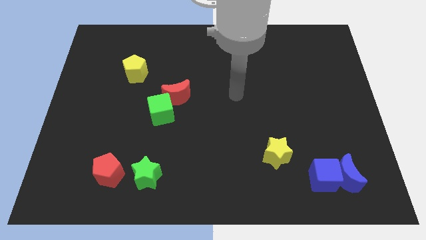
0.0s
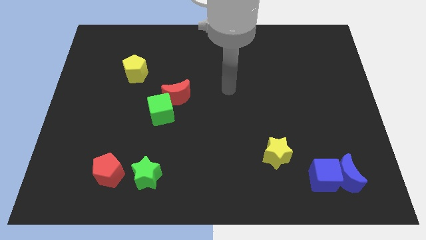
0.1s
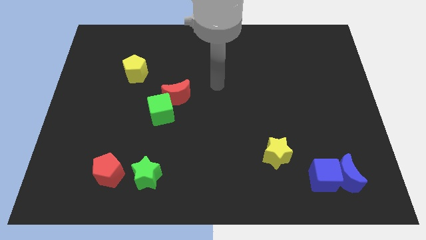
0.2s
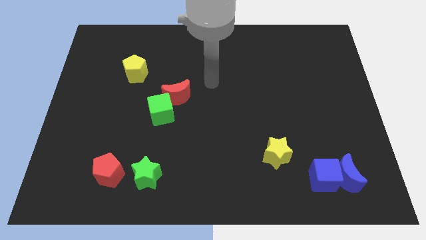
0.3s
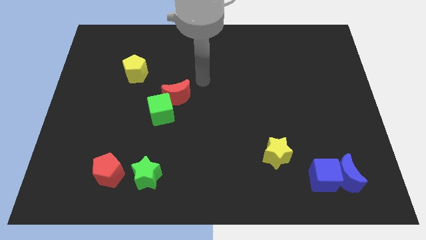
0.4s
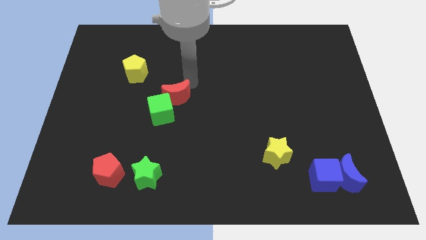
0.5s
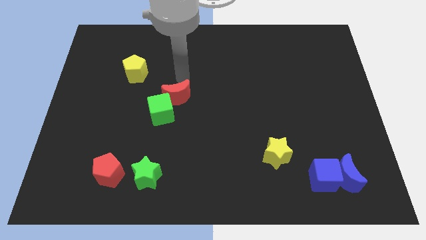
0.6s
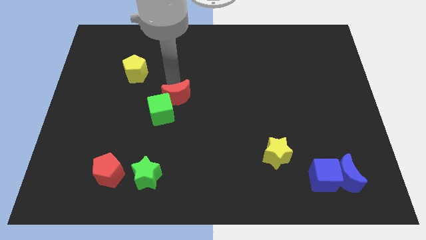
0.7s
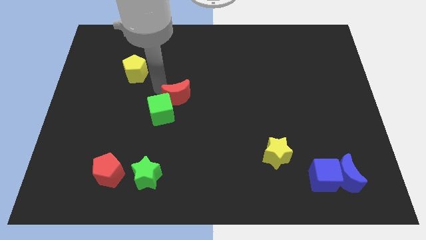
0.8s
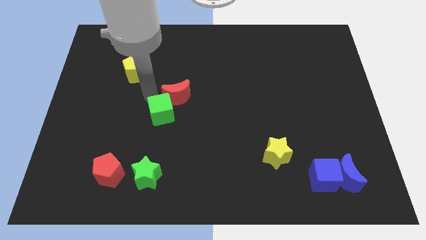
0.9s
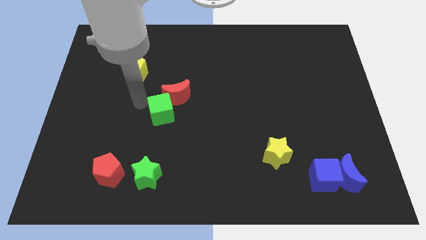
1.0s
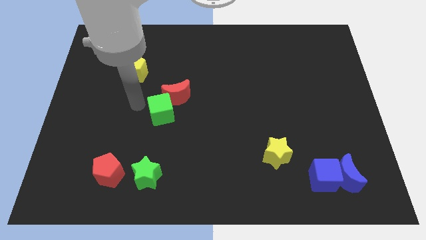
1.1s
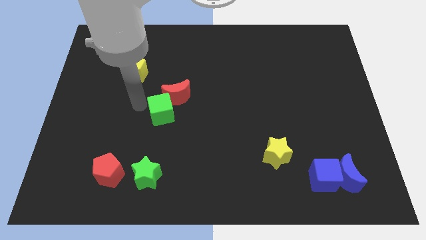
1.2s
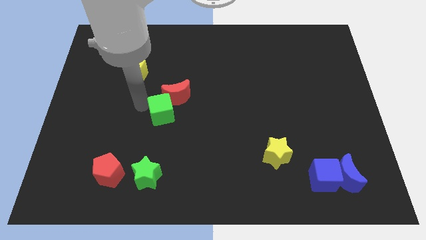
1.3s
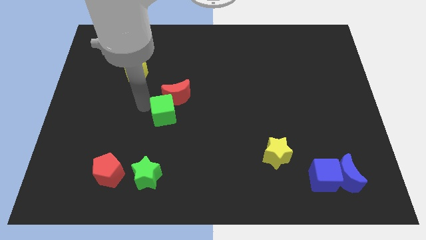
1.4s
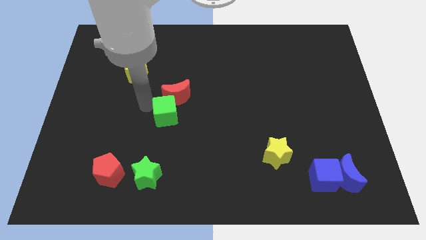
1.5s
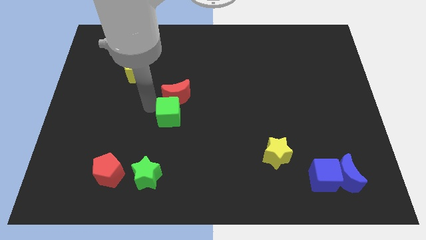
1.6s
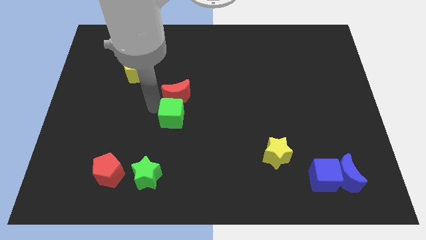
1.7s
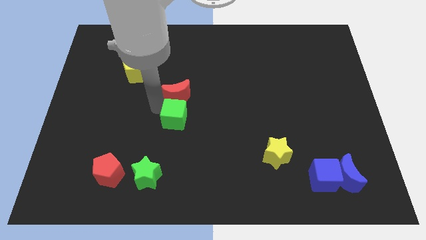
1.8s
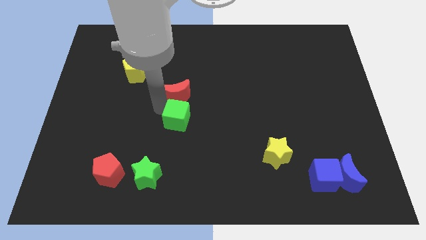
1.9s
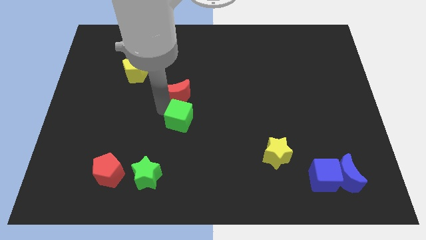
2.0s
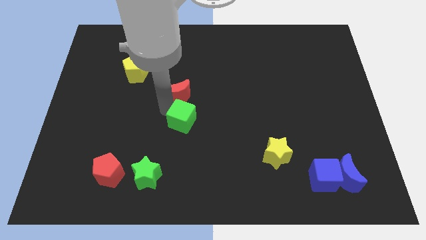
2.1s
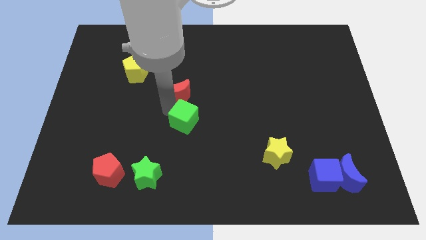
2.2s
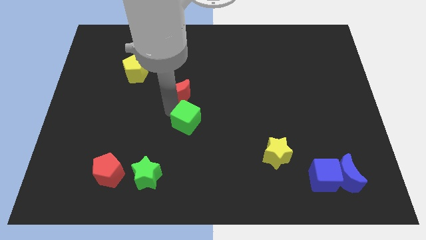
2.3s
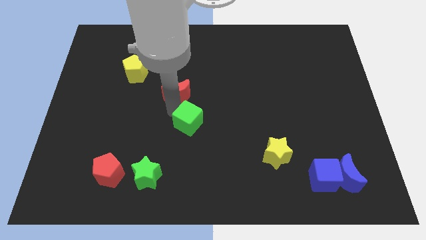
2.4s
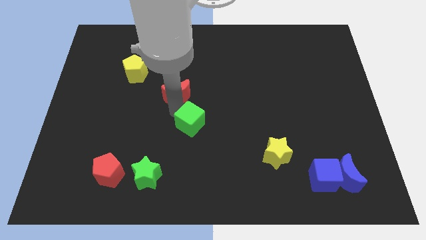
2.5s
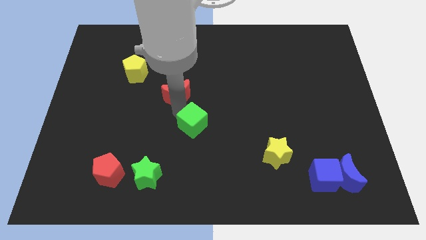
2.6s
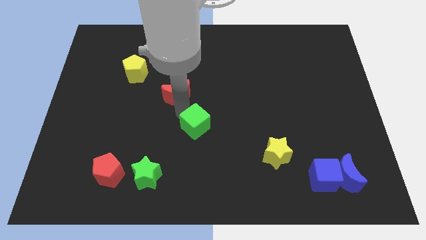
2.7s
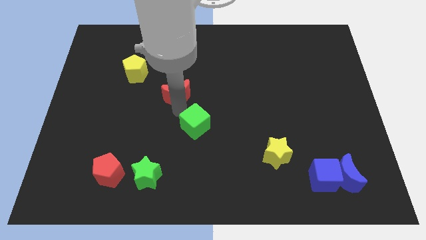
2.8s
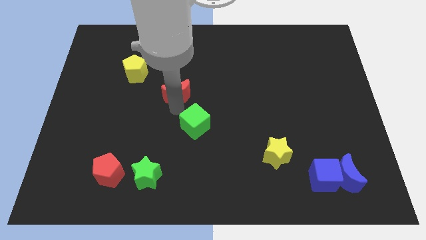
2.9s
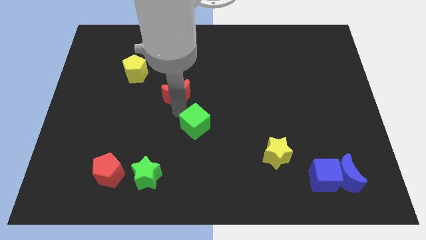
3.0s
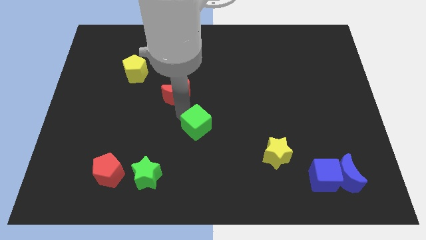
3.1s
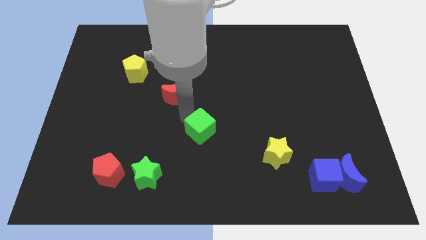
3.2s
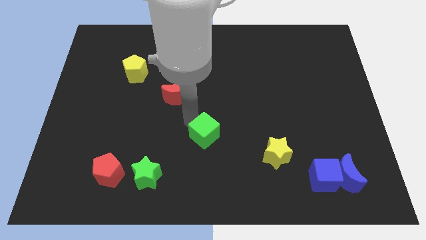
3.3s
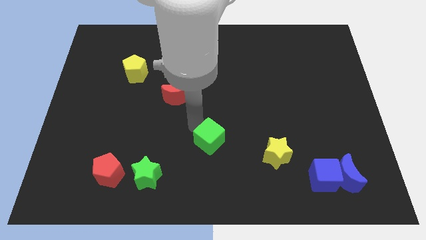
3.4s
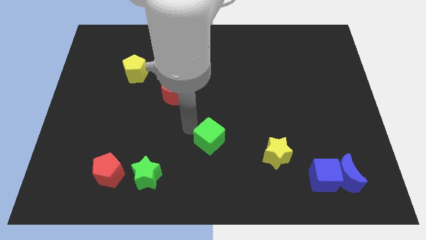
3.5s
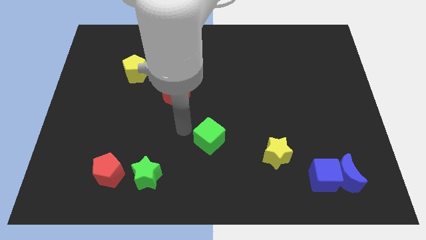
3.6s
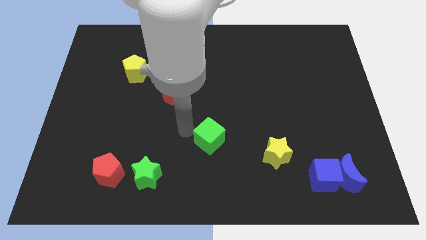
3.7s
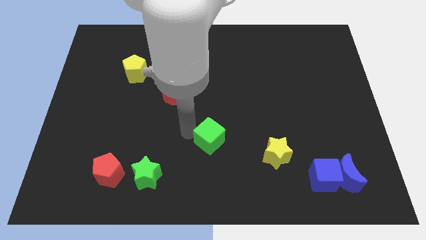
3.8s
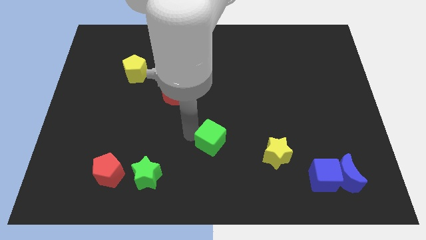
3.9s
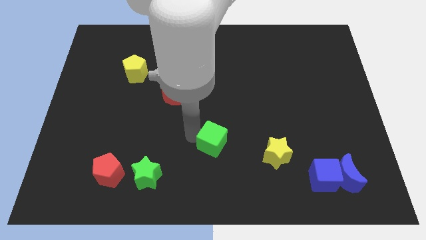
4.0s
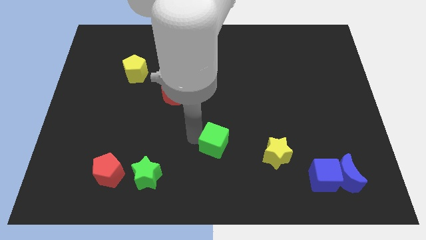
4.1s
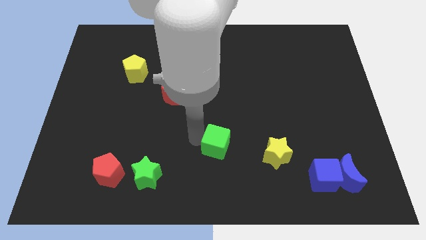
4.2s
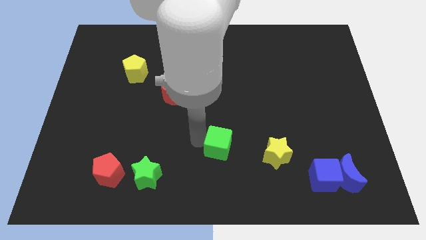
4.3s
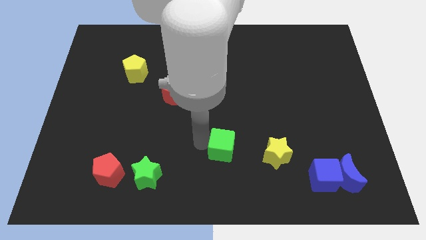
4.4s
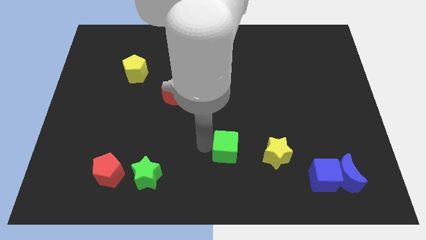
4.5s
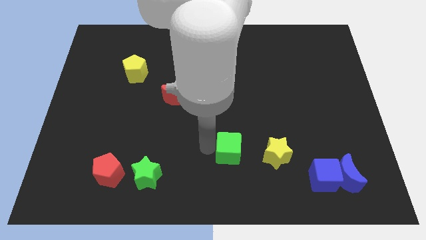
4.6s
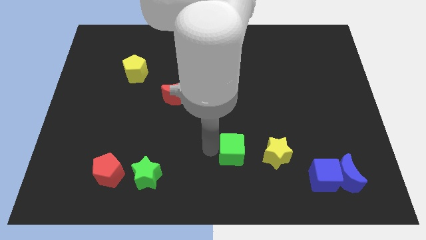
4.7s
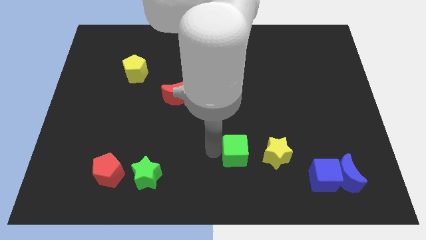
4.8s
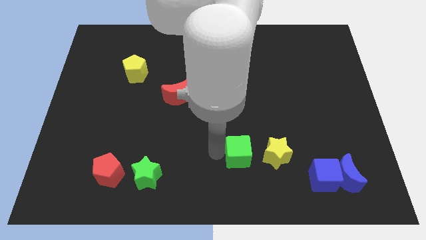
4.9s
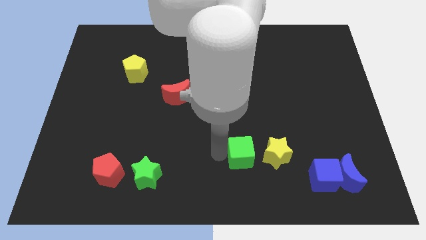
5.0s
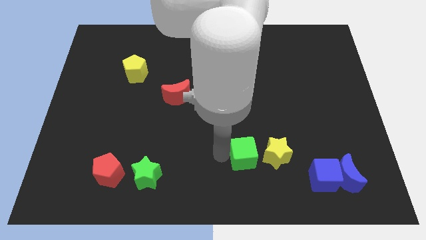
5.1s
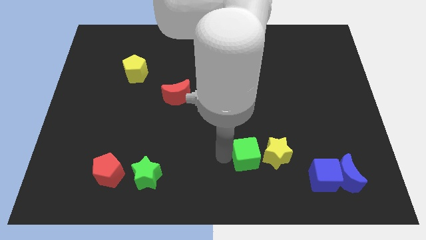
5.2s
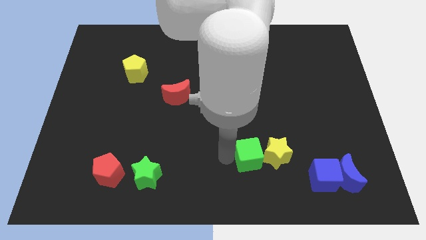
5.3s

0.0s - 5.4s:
put the green cube close to the yellow star

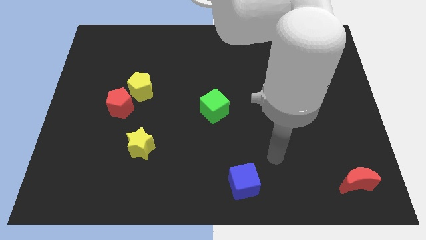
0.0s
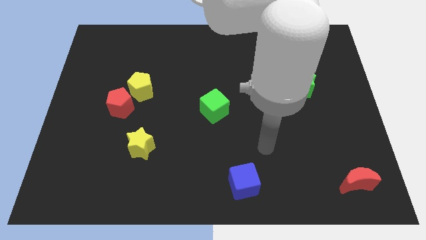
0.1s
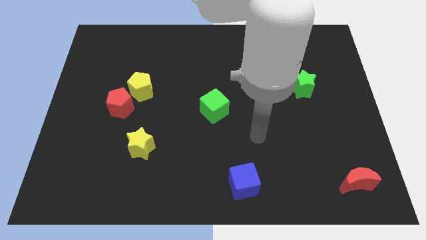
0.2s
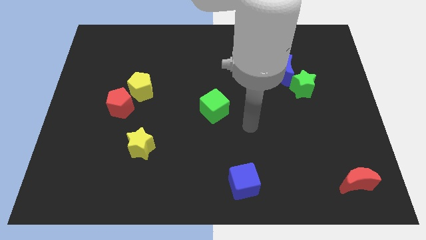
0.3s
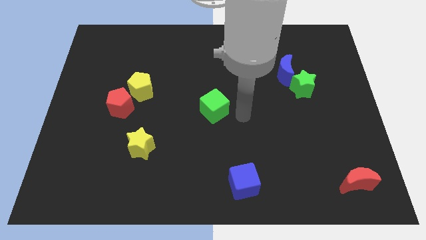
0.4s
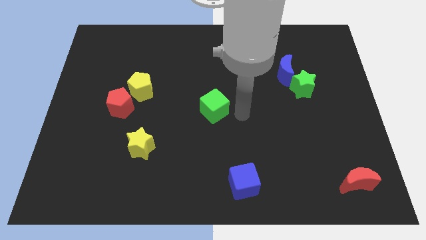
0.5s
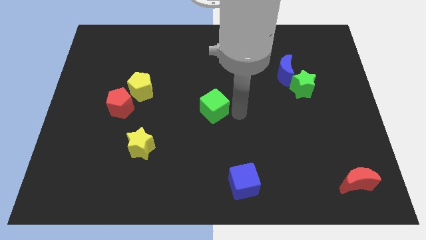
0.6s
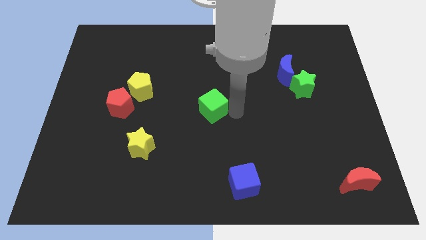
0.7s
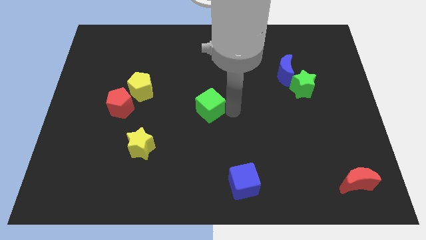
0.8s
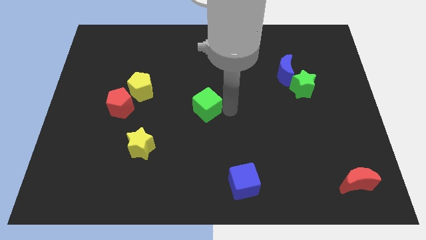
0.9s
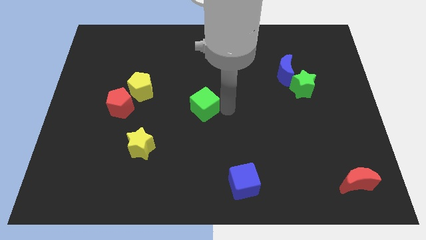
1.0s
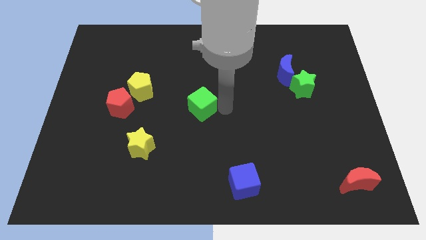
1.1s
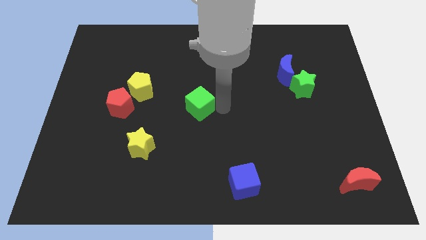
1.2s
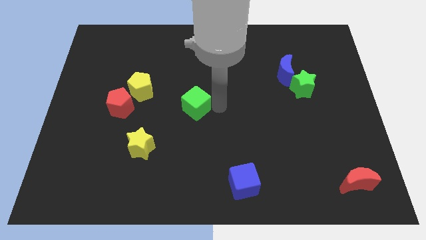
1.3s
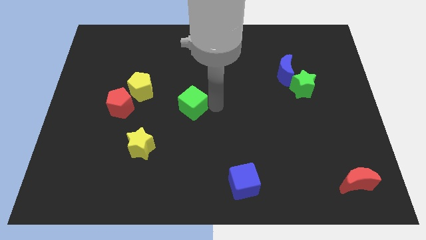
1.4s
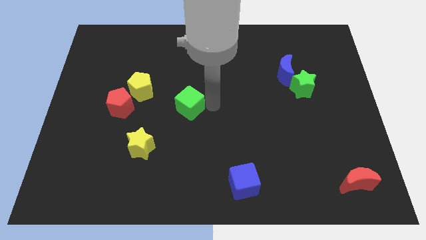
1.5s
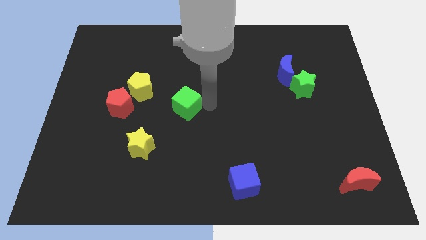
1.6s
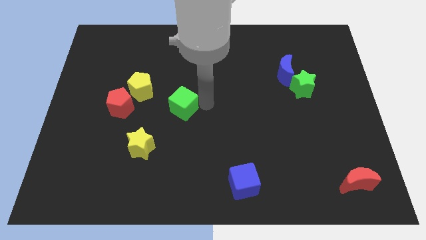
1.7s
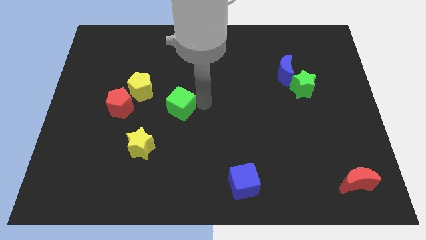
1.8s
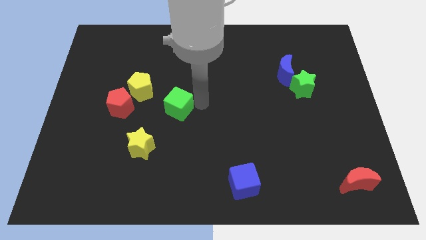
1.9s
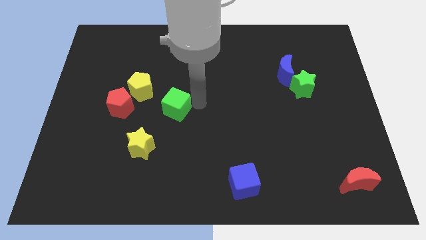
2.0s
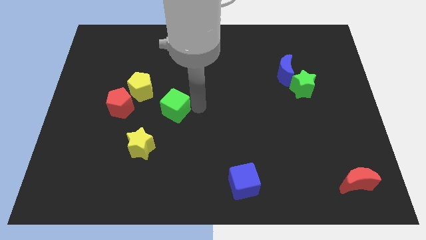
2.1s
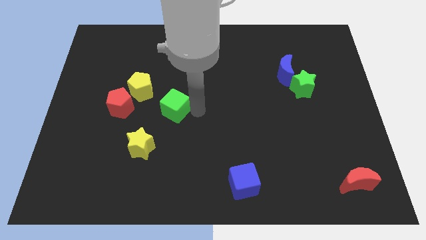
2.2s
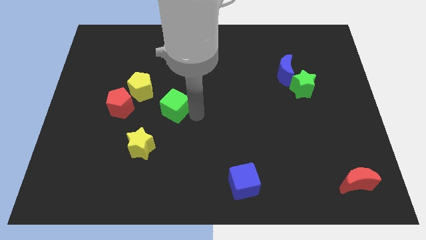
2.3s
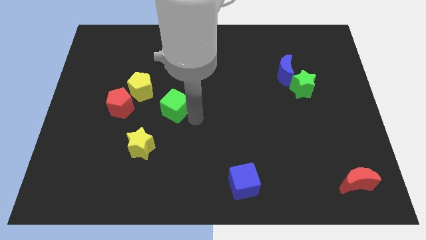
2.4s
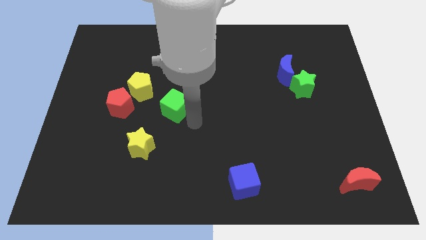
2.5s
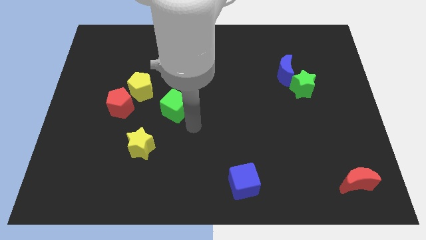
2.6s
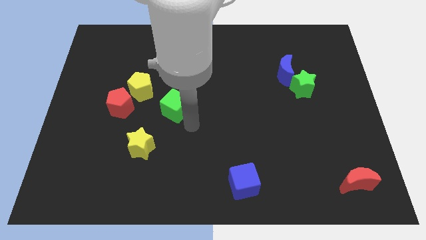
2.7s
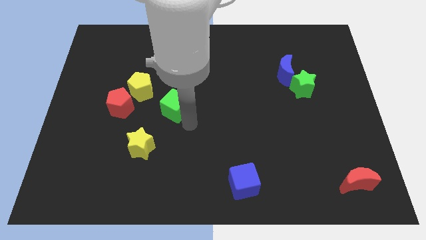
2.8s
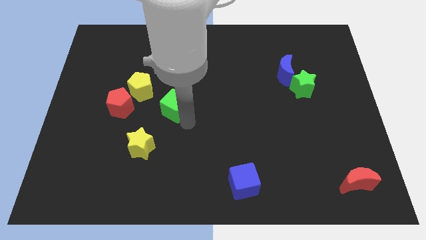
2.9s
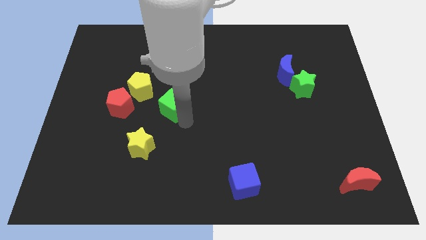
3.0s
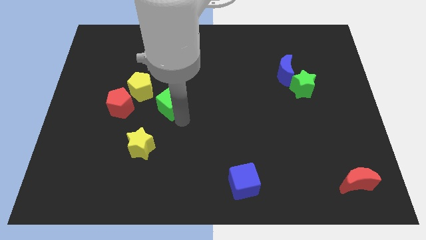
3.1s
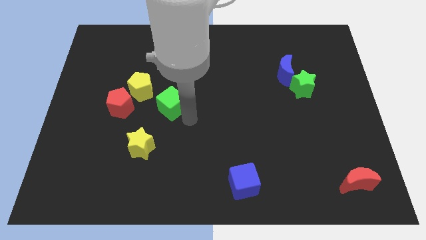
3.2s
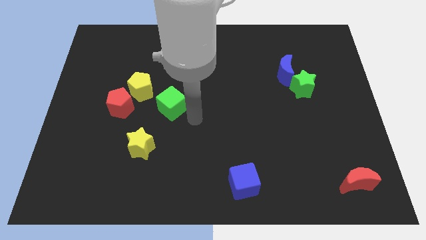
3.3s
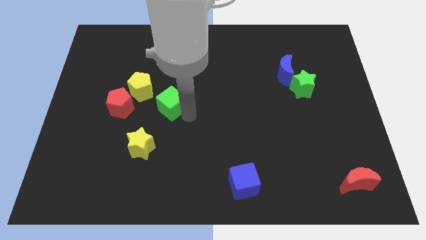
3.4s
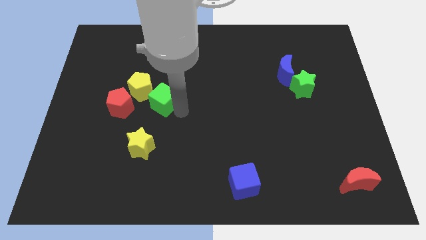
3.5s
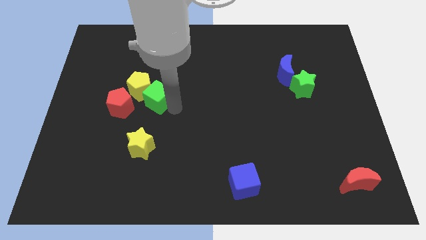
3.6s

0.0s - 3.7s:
push the green cube towards the yellow pentagon
